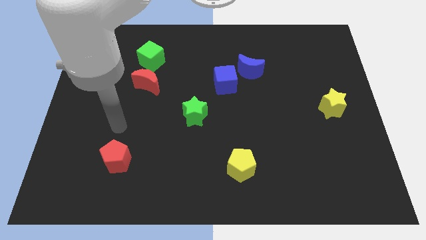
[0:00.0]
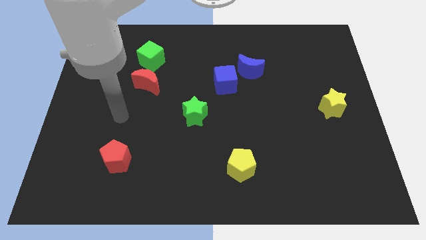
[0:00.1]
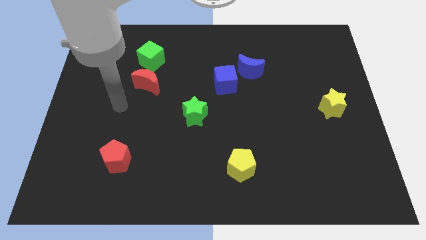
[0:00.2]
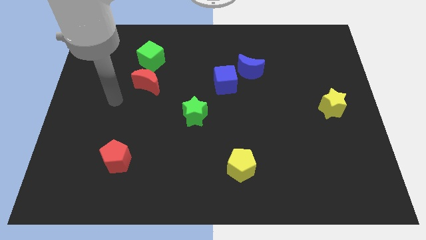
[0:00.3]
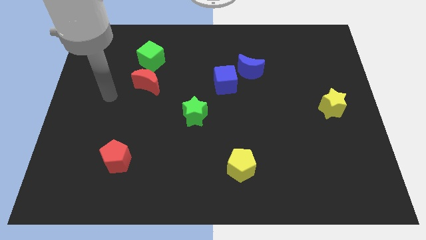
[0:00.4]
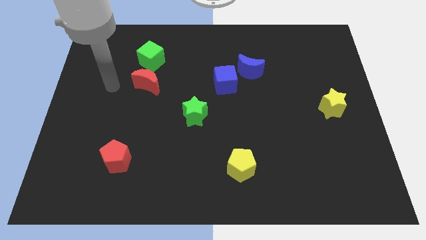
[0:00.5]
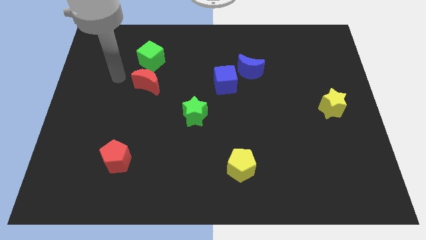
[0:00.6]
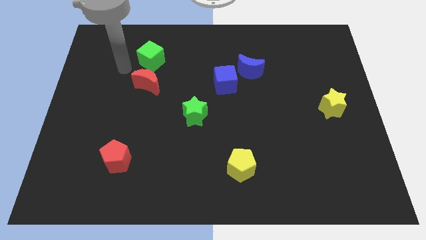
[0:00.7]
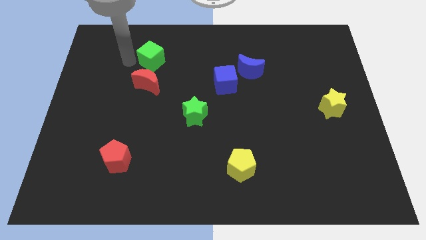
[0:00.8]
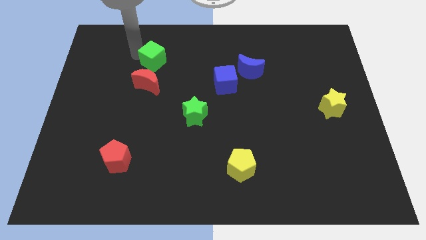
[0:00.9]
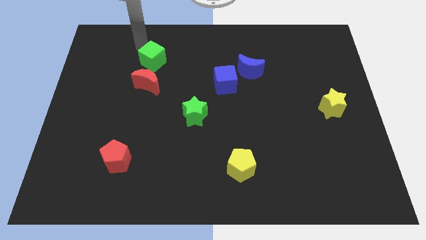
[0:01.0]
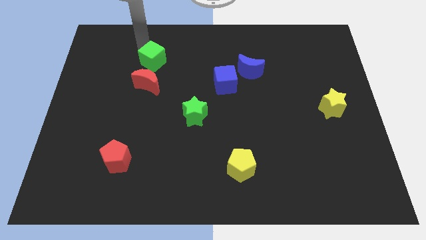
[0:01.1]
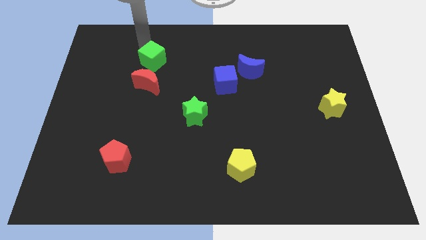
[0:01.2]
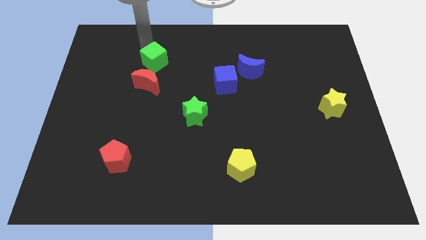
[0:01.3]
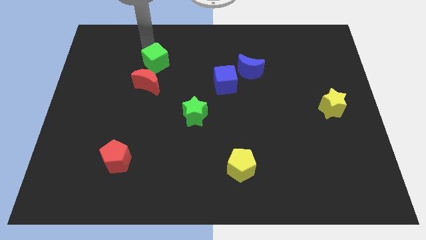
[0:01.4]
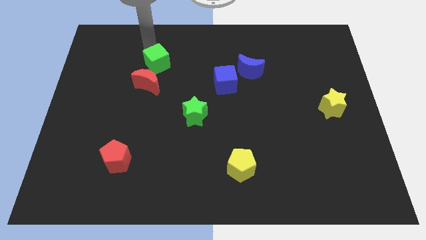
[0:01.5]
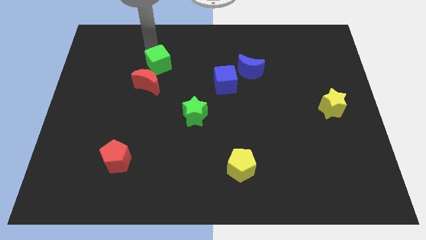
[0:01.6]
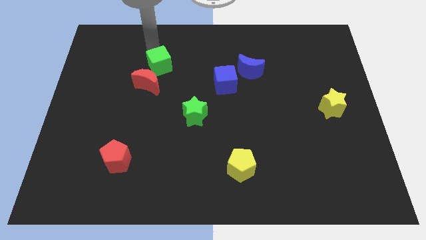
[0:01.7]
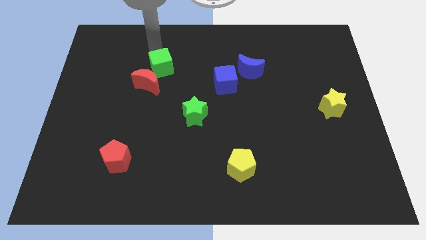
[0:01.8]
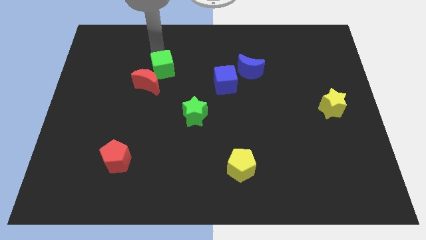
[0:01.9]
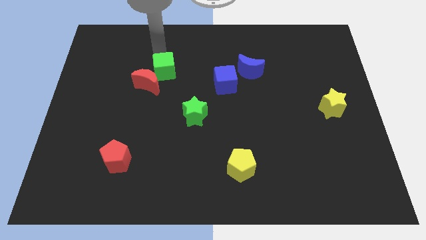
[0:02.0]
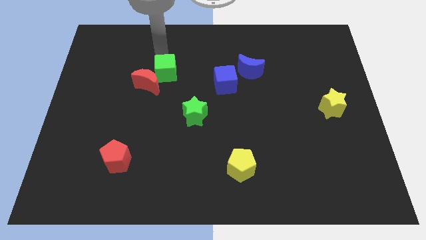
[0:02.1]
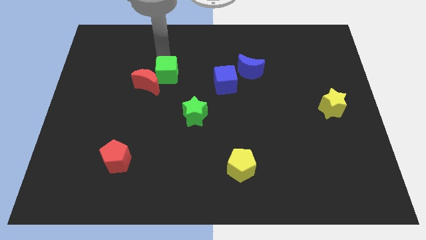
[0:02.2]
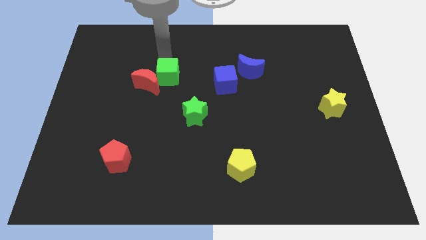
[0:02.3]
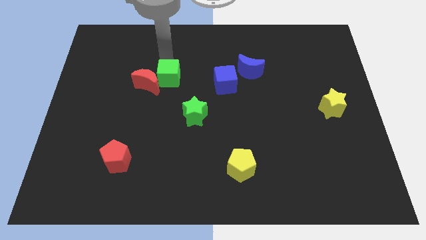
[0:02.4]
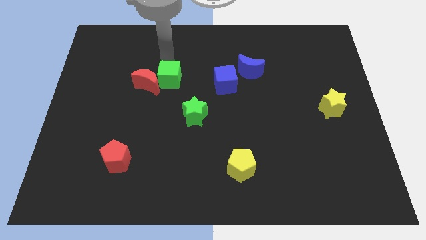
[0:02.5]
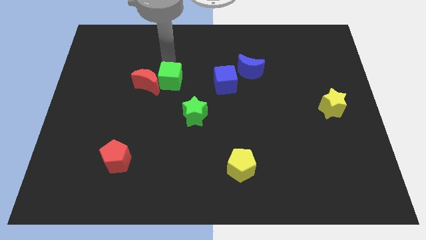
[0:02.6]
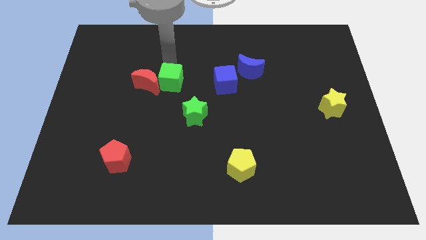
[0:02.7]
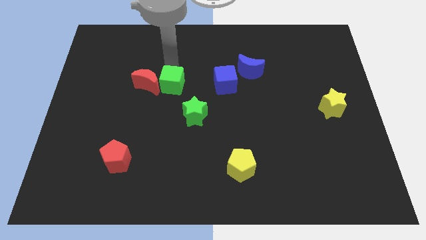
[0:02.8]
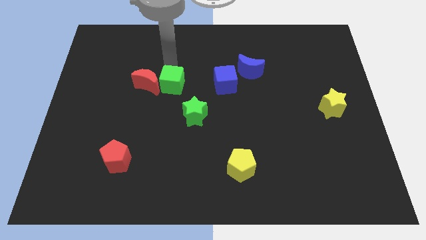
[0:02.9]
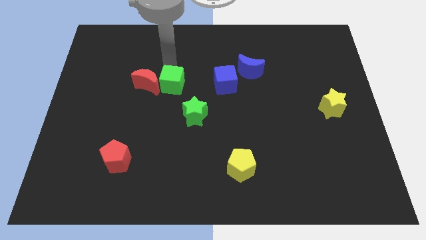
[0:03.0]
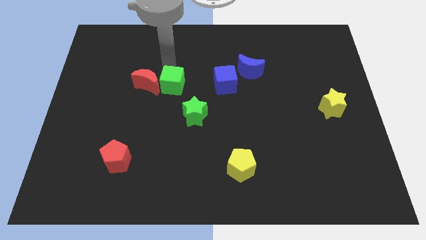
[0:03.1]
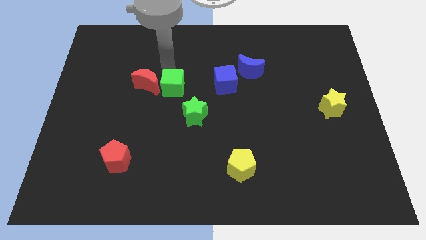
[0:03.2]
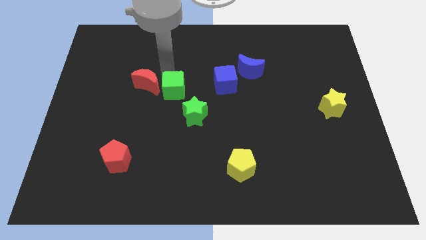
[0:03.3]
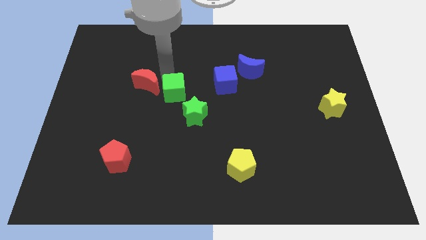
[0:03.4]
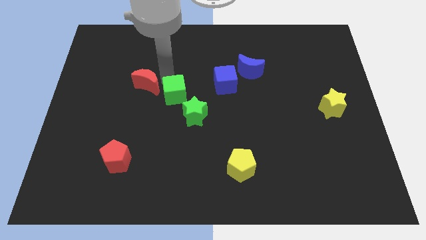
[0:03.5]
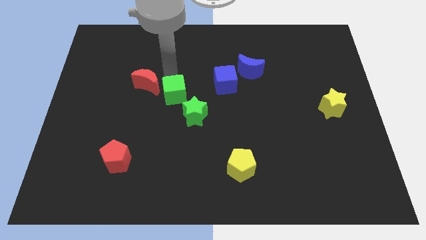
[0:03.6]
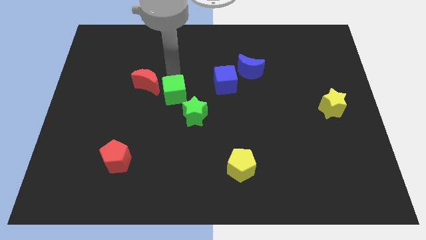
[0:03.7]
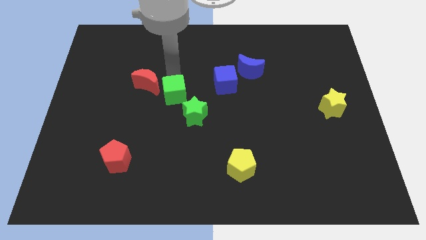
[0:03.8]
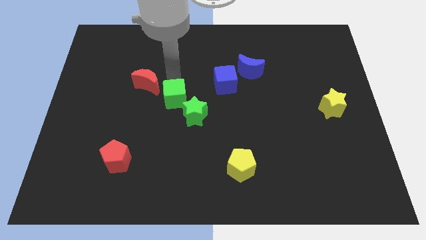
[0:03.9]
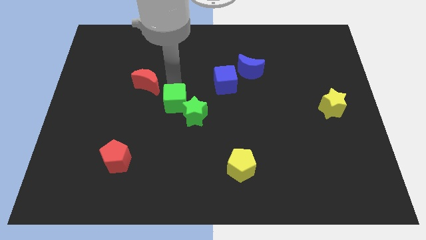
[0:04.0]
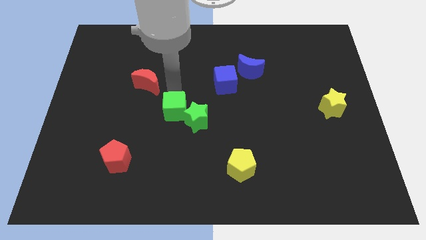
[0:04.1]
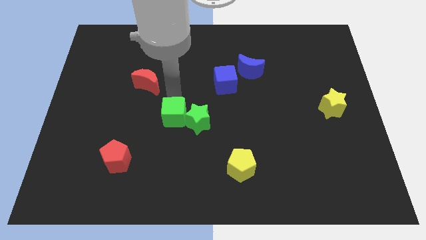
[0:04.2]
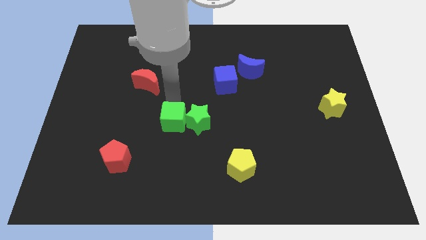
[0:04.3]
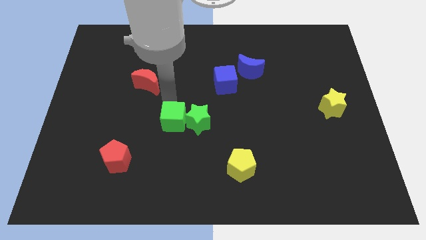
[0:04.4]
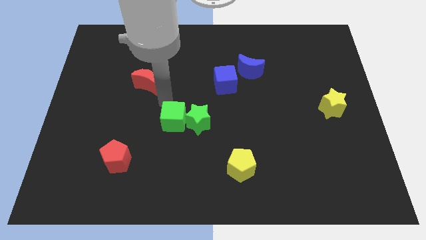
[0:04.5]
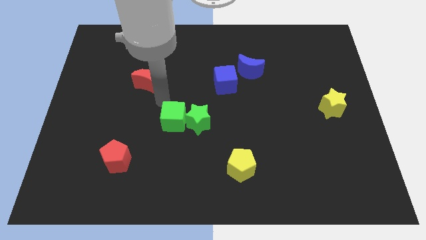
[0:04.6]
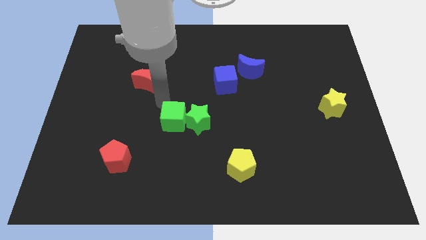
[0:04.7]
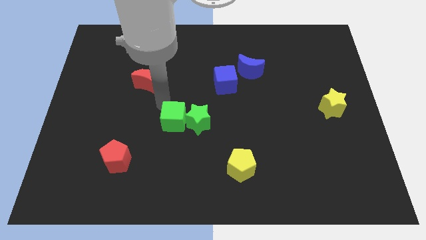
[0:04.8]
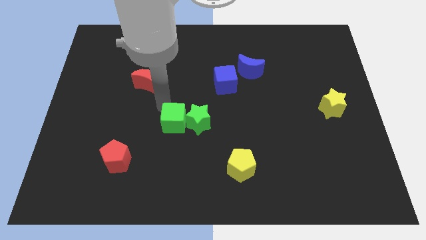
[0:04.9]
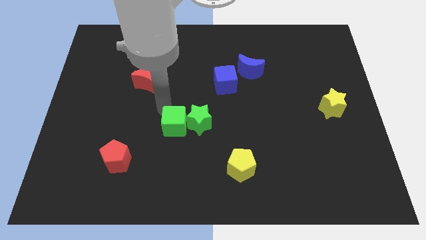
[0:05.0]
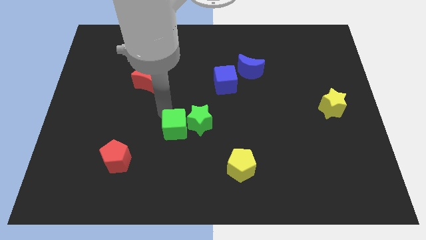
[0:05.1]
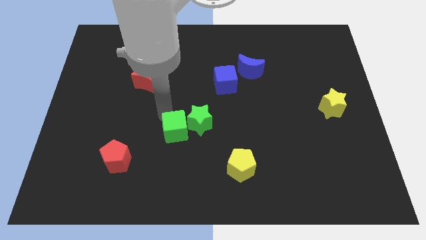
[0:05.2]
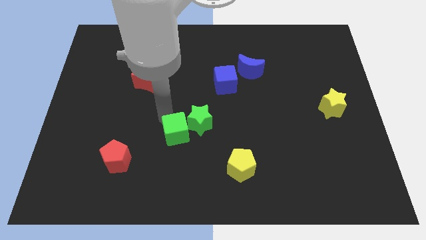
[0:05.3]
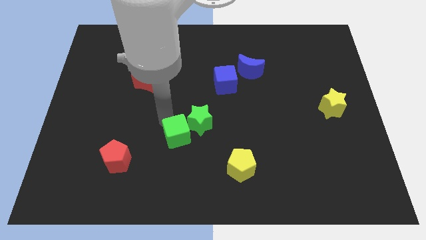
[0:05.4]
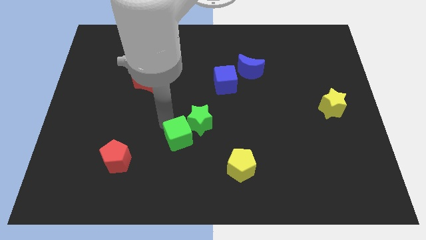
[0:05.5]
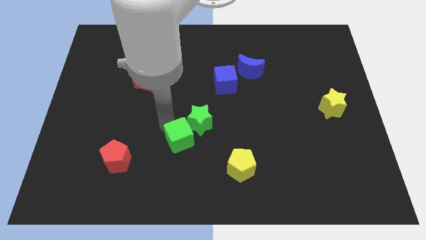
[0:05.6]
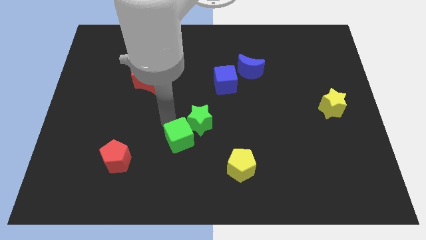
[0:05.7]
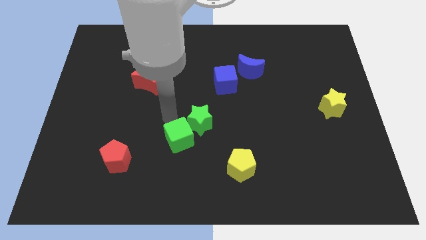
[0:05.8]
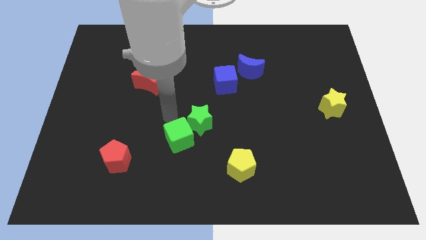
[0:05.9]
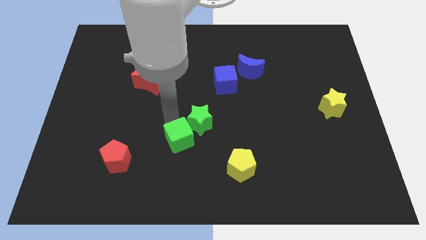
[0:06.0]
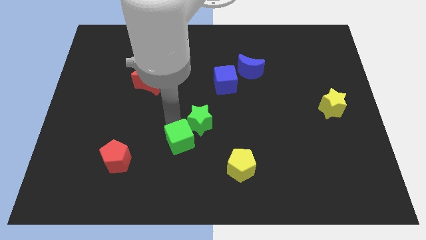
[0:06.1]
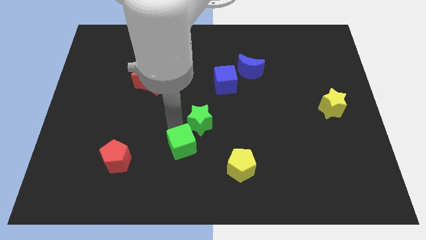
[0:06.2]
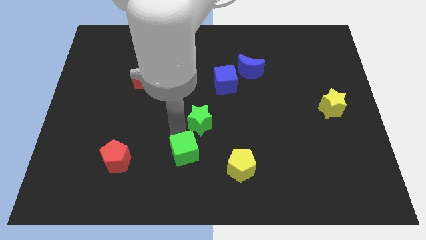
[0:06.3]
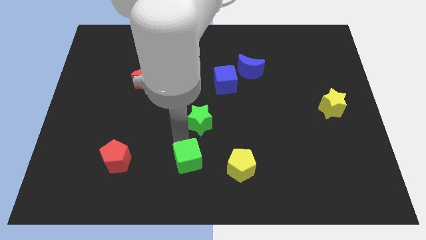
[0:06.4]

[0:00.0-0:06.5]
put the green cube to the bottom
